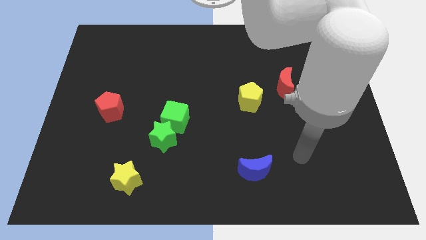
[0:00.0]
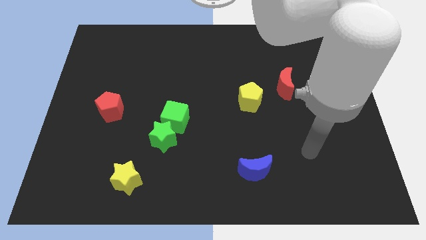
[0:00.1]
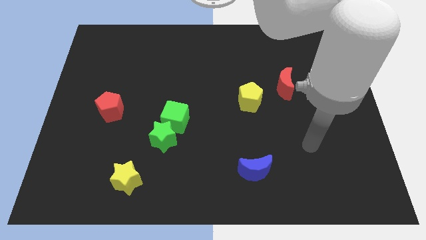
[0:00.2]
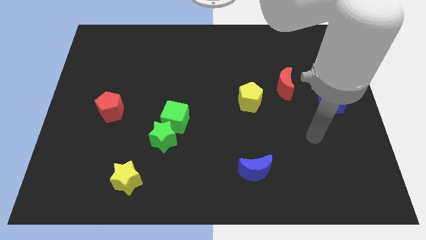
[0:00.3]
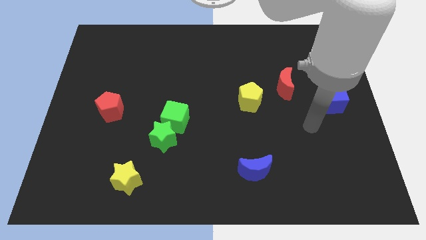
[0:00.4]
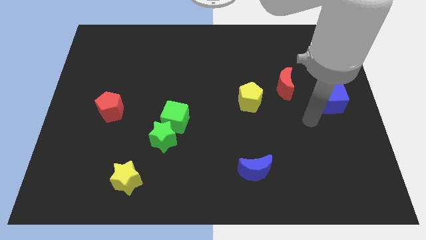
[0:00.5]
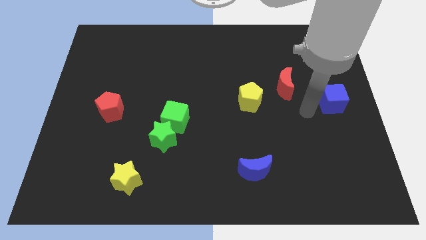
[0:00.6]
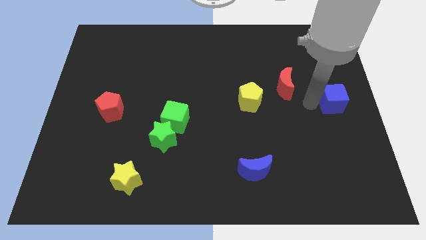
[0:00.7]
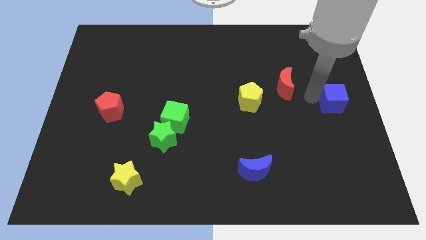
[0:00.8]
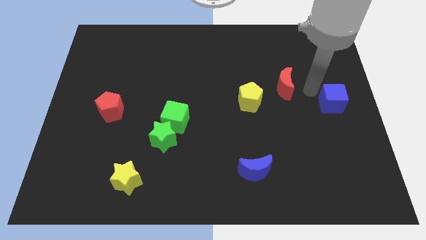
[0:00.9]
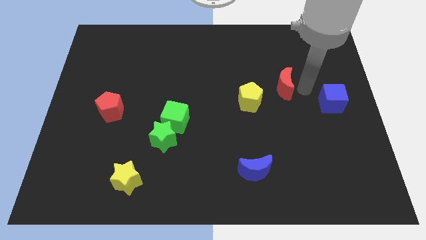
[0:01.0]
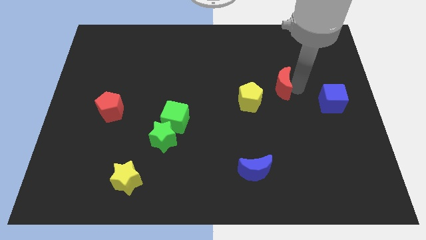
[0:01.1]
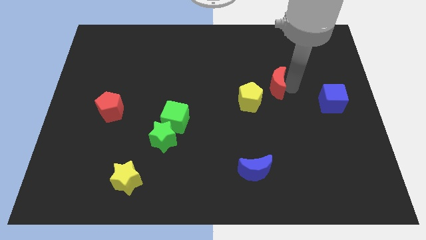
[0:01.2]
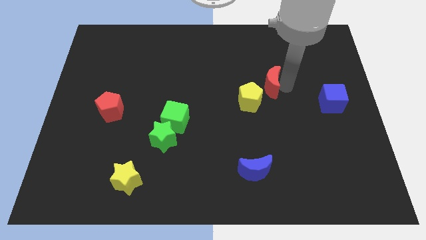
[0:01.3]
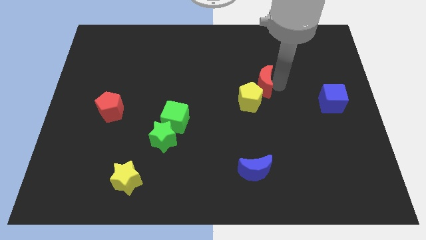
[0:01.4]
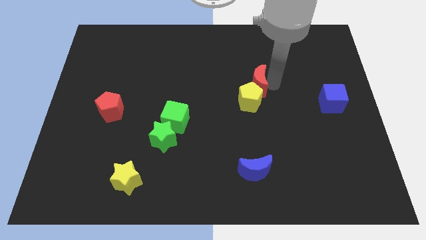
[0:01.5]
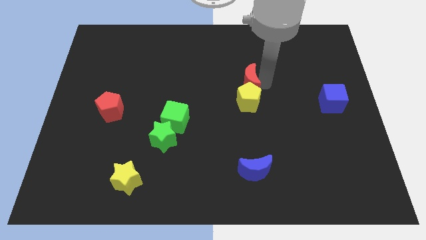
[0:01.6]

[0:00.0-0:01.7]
slightly move the red moon to the left

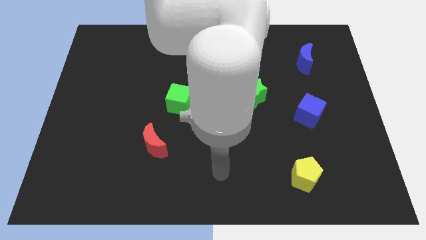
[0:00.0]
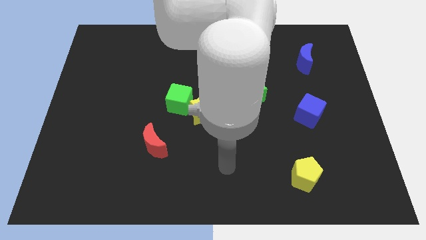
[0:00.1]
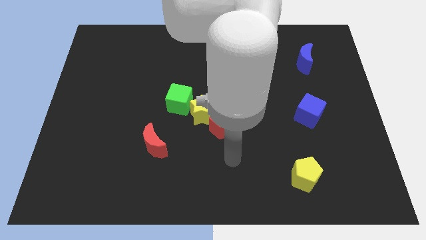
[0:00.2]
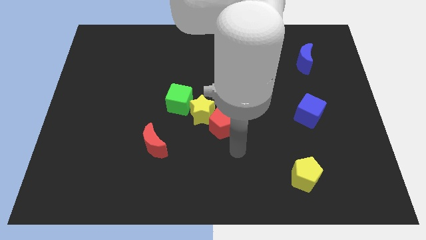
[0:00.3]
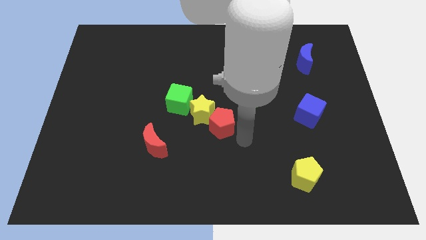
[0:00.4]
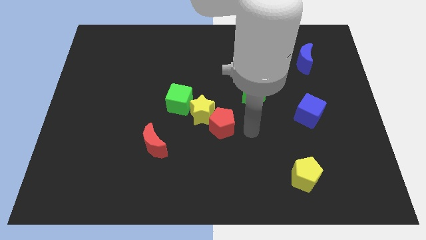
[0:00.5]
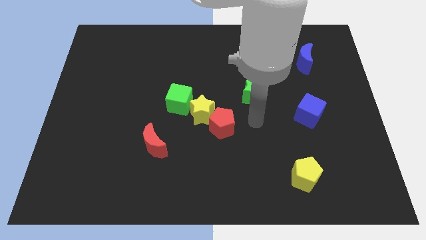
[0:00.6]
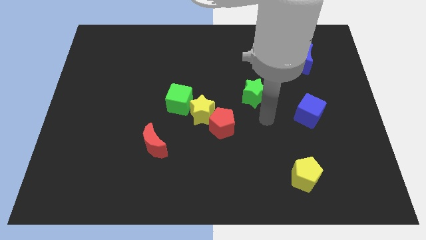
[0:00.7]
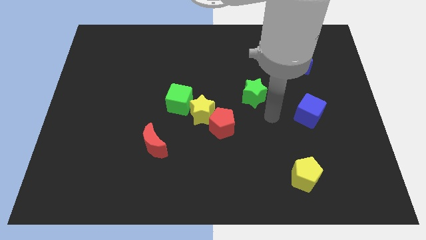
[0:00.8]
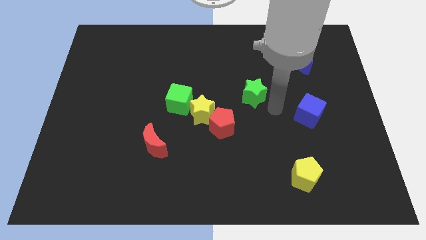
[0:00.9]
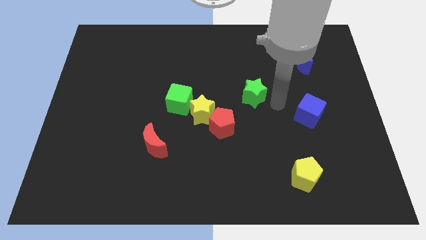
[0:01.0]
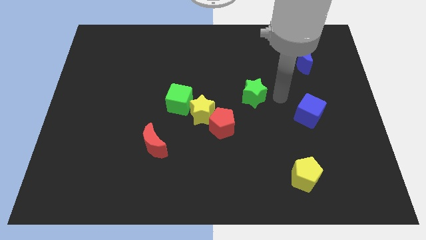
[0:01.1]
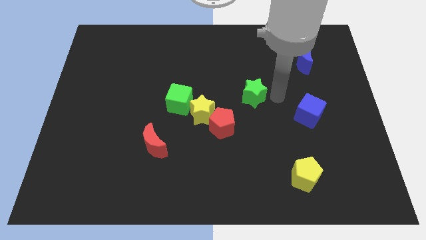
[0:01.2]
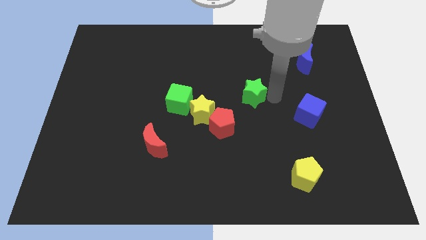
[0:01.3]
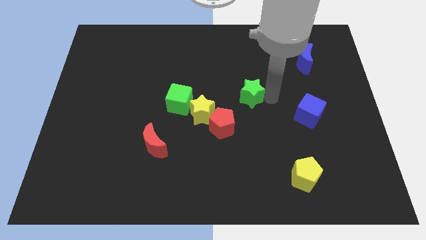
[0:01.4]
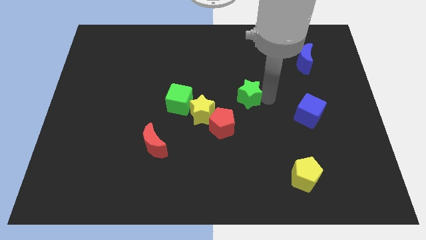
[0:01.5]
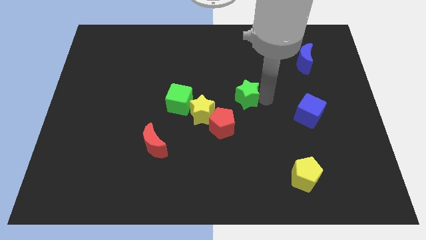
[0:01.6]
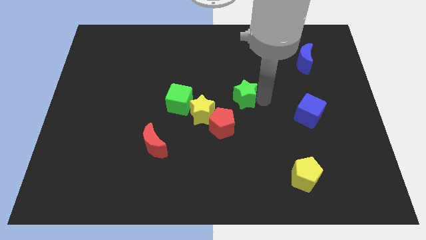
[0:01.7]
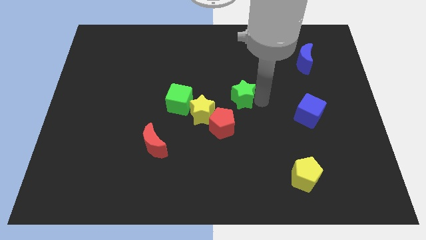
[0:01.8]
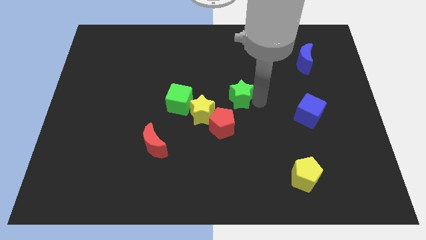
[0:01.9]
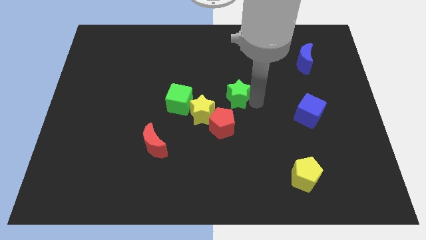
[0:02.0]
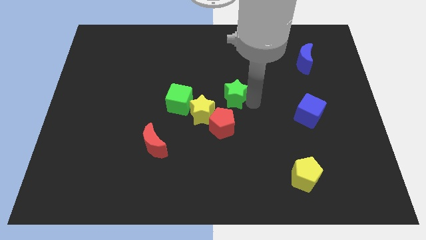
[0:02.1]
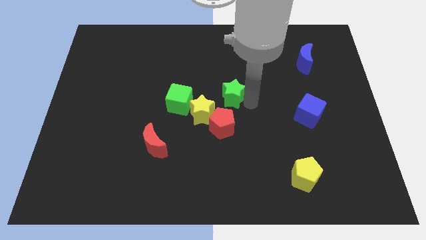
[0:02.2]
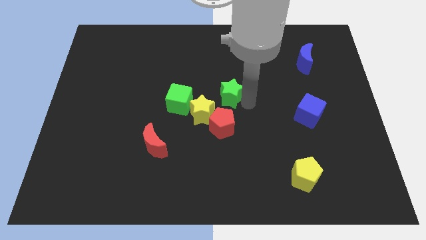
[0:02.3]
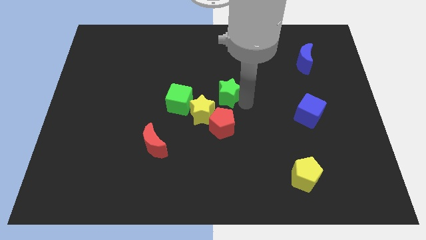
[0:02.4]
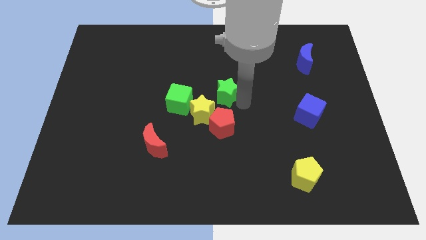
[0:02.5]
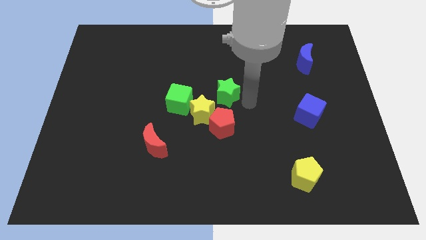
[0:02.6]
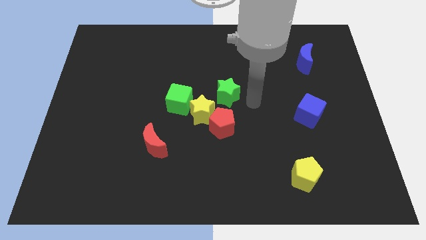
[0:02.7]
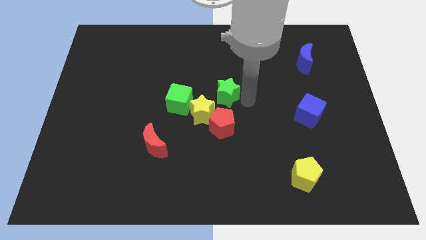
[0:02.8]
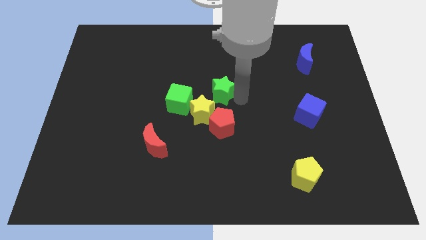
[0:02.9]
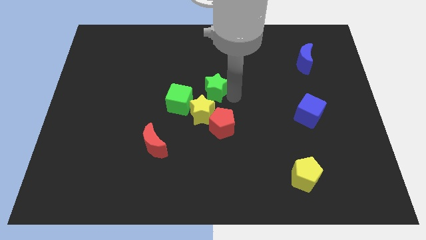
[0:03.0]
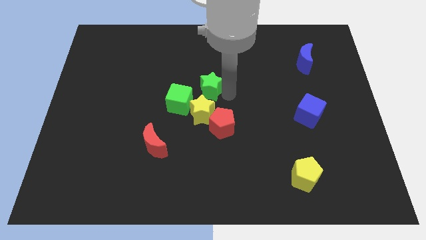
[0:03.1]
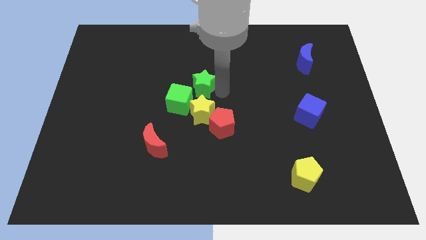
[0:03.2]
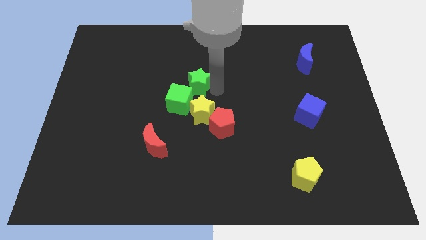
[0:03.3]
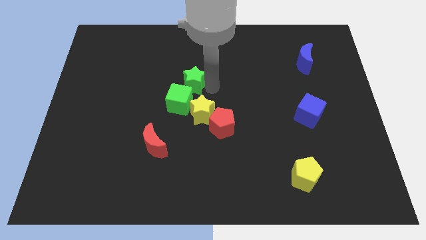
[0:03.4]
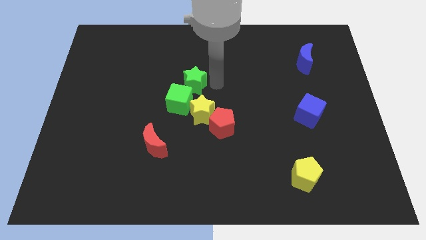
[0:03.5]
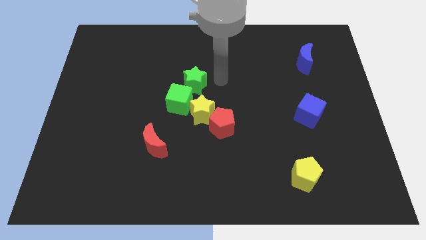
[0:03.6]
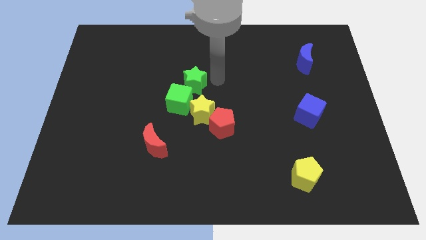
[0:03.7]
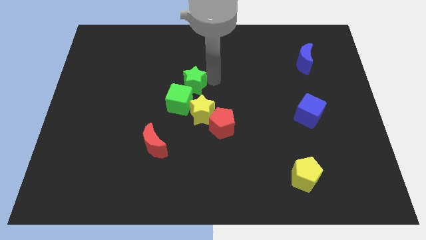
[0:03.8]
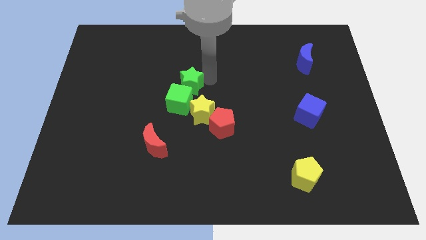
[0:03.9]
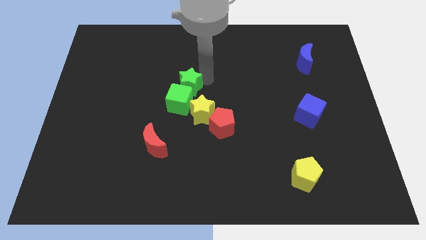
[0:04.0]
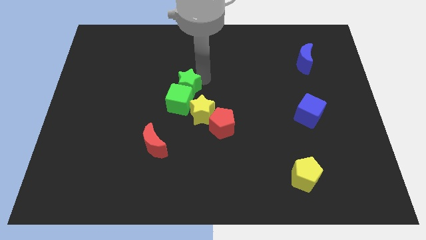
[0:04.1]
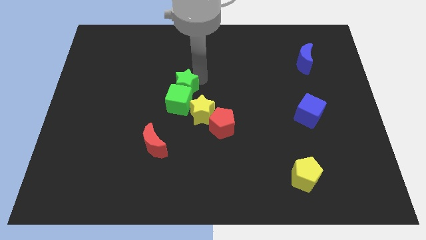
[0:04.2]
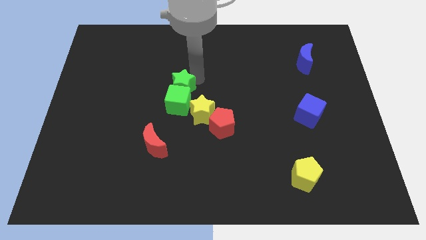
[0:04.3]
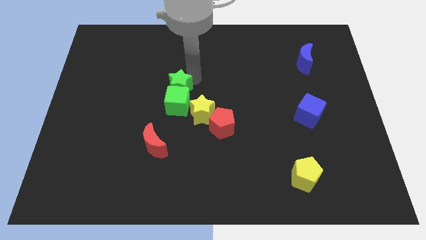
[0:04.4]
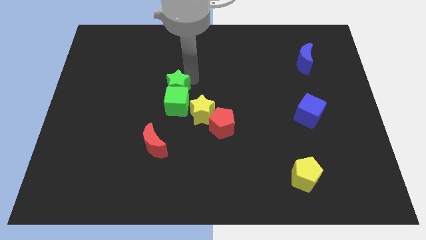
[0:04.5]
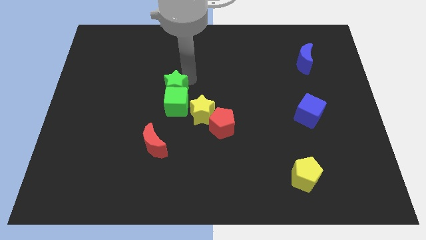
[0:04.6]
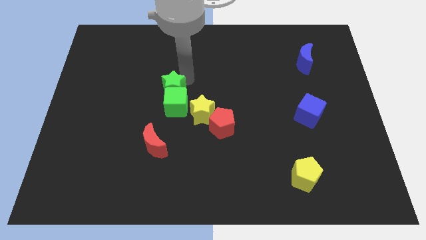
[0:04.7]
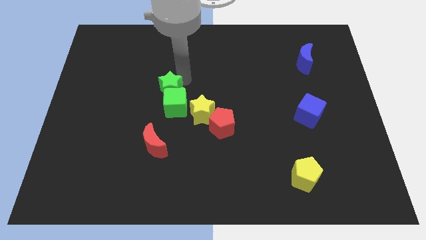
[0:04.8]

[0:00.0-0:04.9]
push the green star to the left

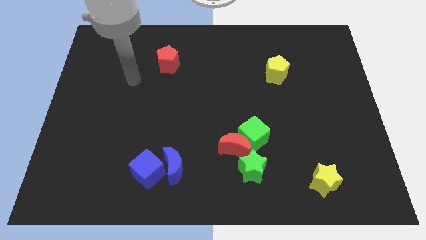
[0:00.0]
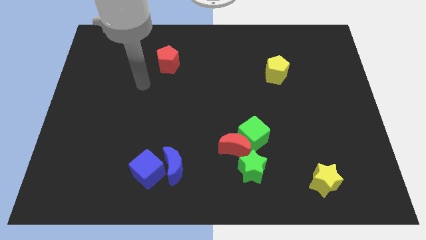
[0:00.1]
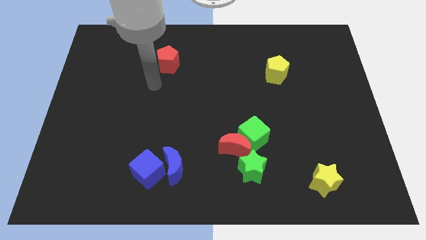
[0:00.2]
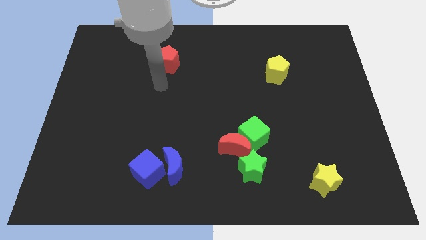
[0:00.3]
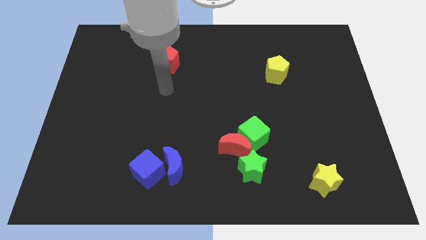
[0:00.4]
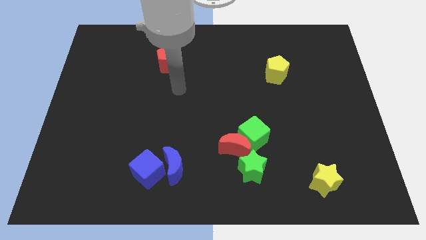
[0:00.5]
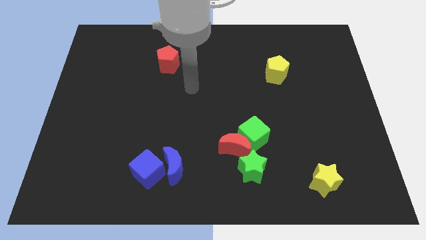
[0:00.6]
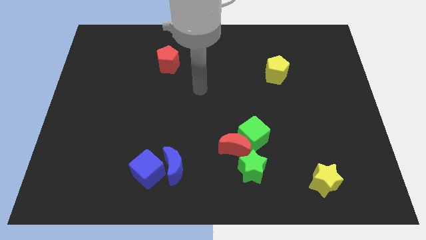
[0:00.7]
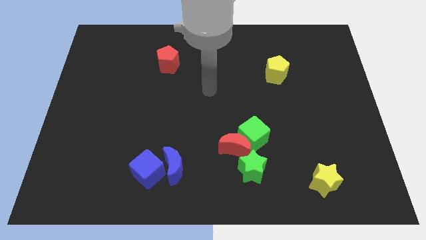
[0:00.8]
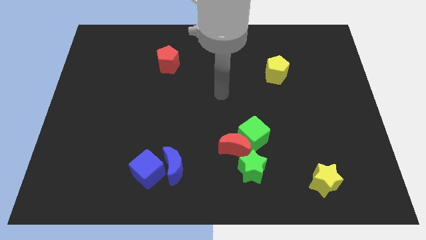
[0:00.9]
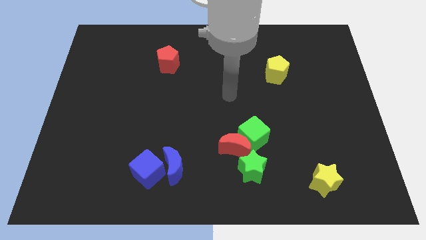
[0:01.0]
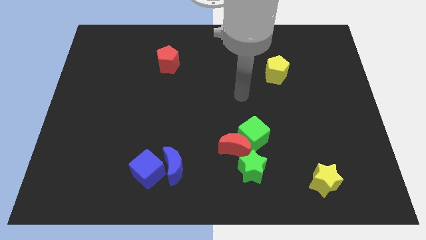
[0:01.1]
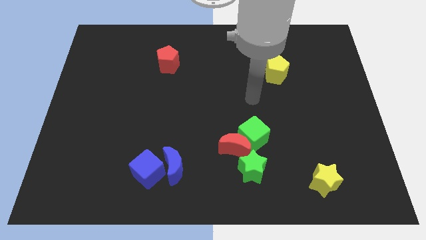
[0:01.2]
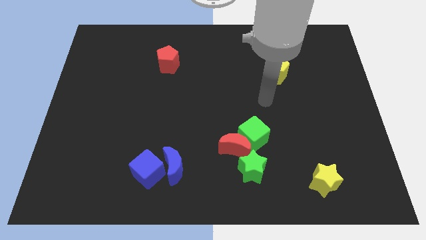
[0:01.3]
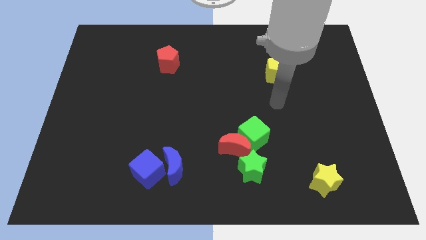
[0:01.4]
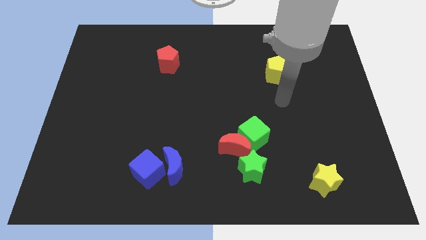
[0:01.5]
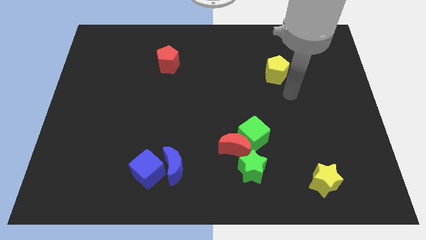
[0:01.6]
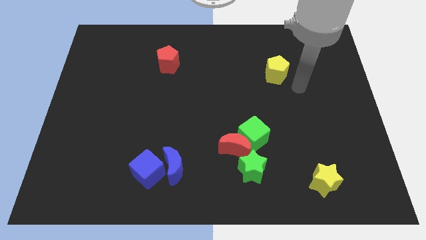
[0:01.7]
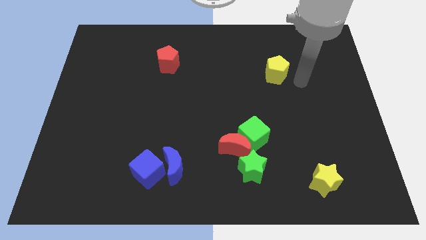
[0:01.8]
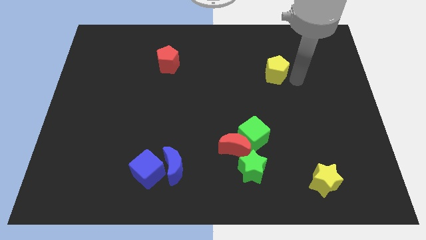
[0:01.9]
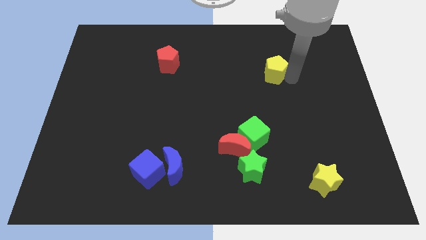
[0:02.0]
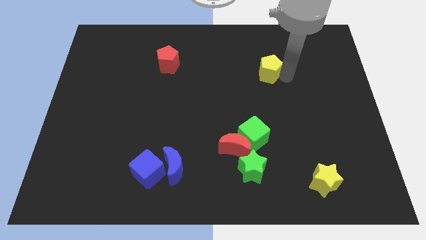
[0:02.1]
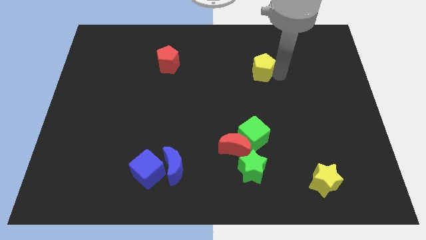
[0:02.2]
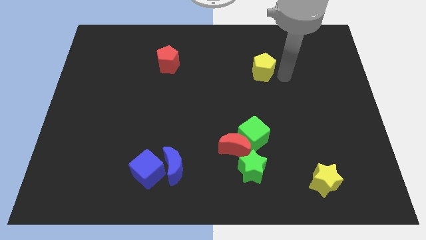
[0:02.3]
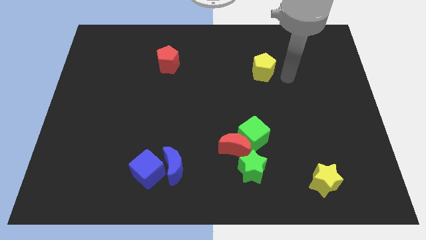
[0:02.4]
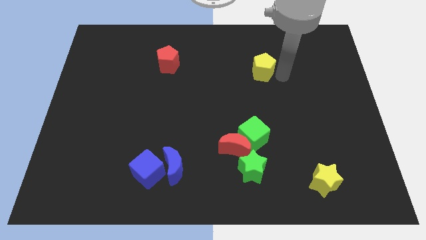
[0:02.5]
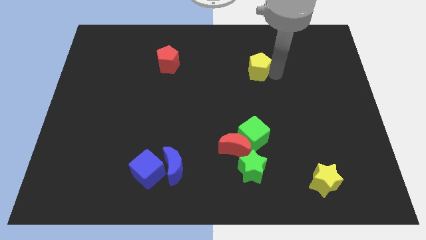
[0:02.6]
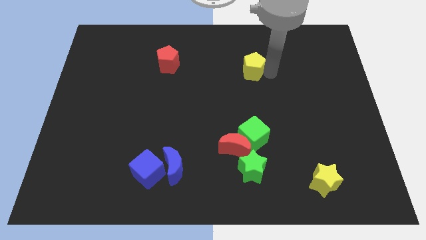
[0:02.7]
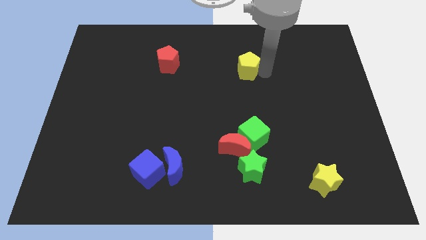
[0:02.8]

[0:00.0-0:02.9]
push the yellow pentagon to the left slightly
